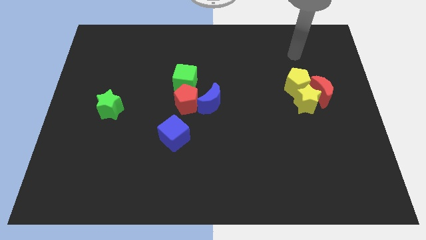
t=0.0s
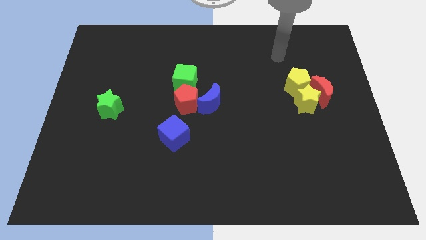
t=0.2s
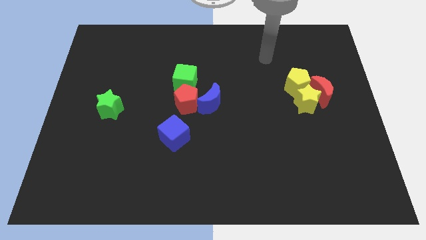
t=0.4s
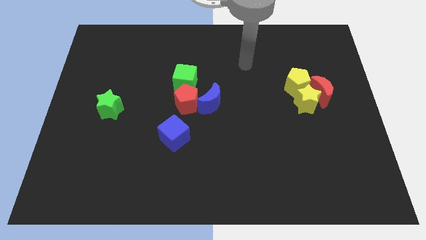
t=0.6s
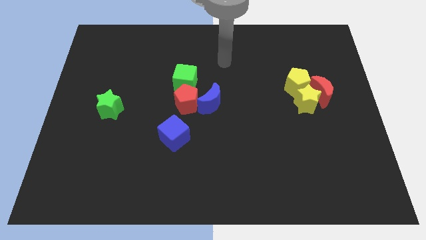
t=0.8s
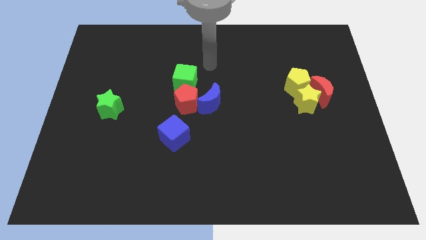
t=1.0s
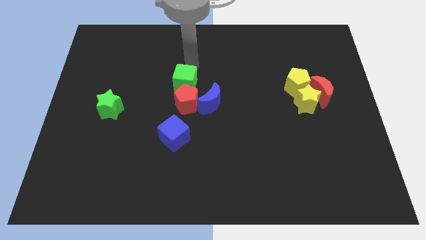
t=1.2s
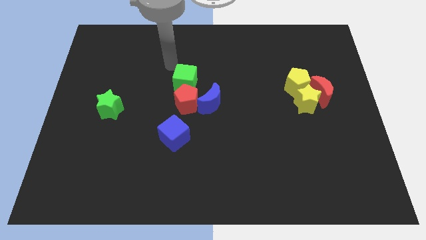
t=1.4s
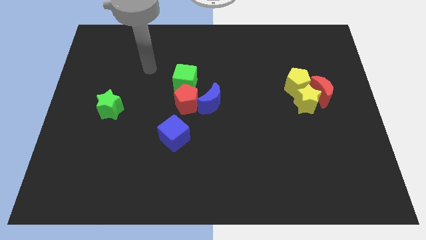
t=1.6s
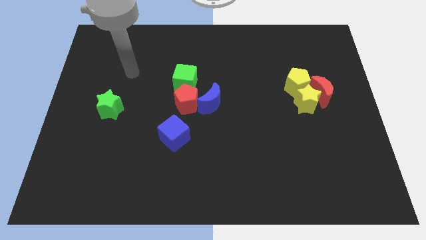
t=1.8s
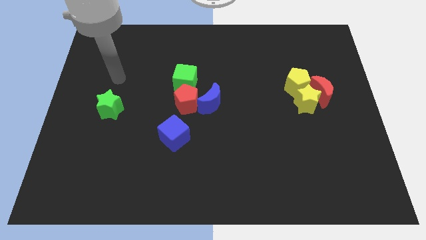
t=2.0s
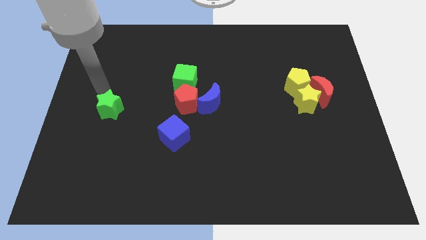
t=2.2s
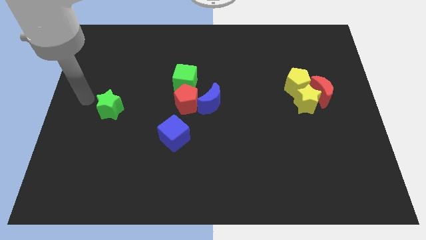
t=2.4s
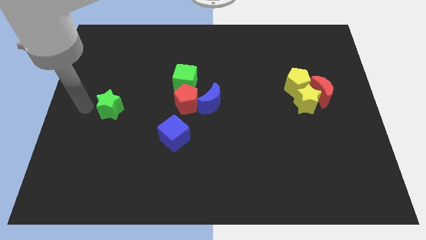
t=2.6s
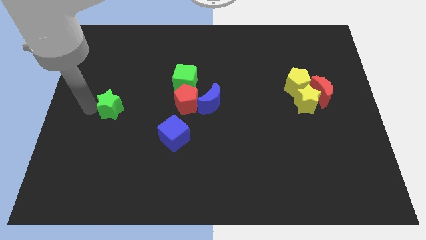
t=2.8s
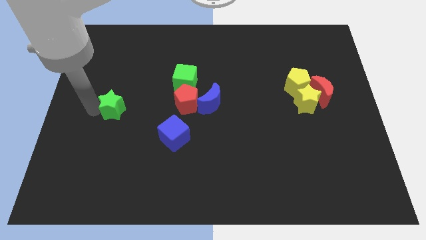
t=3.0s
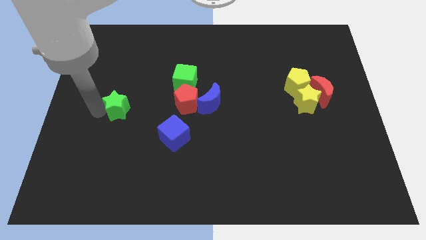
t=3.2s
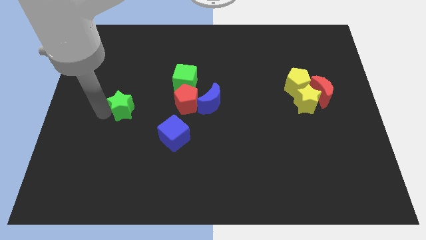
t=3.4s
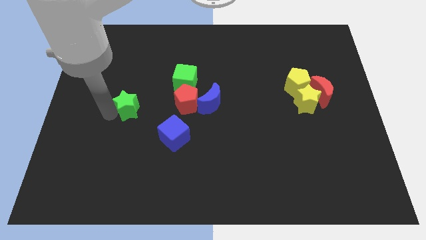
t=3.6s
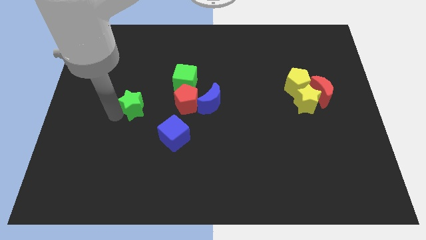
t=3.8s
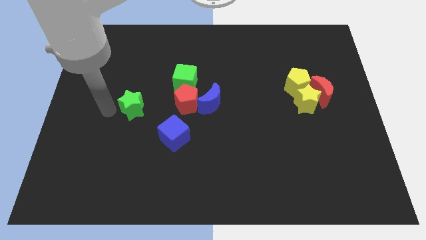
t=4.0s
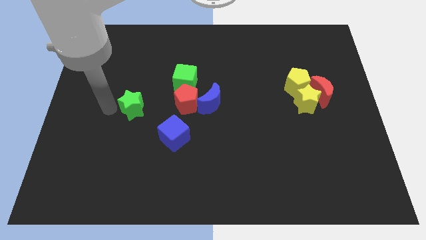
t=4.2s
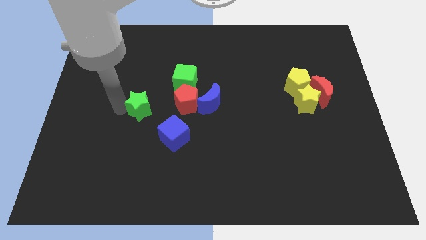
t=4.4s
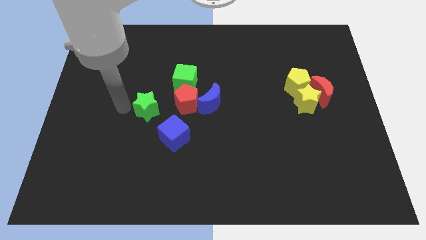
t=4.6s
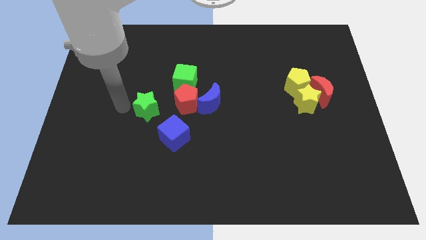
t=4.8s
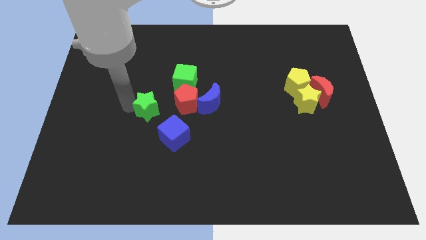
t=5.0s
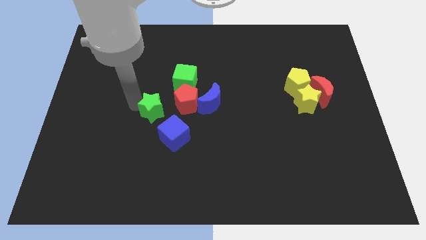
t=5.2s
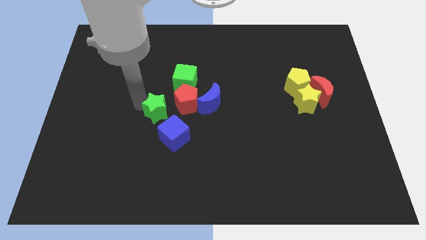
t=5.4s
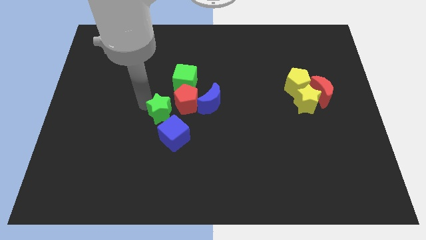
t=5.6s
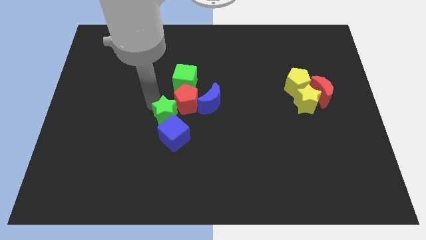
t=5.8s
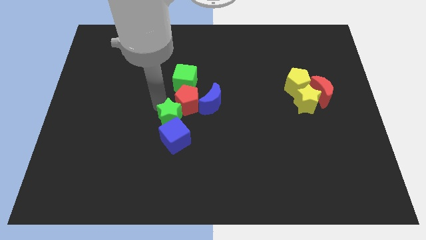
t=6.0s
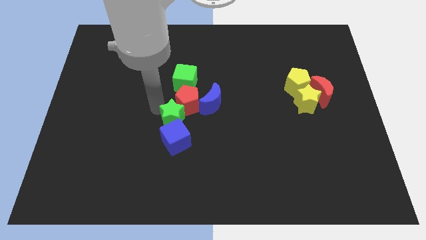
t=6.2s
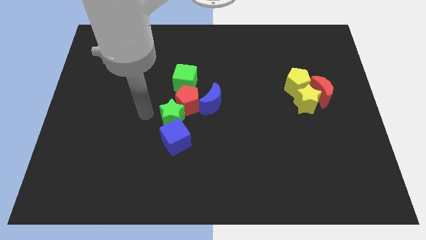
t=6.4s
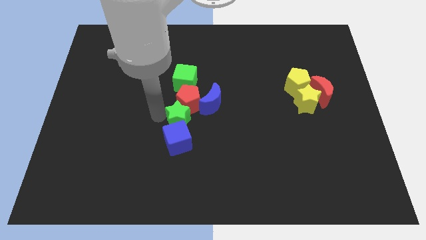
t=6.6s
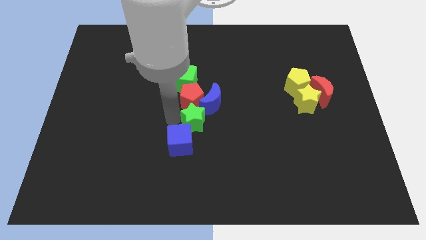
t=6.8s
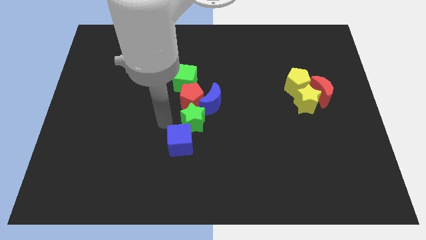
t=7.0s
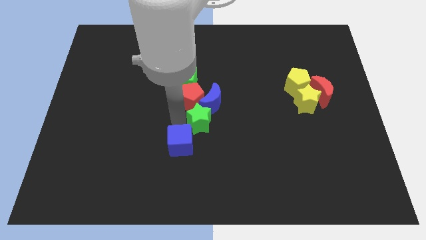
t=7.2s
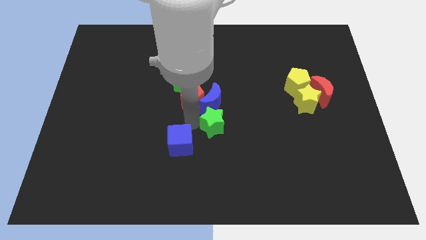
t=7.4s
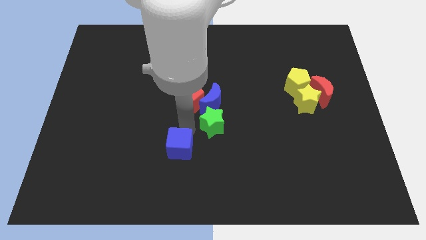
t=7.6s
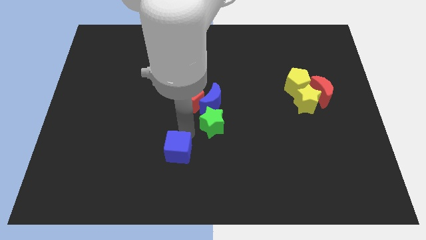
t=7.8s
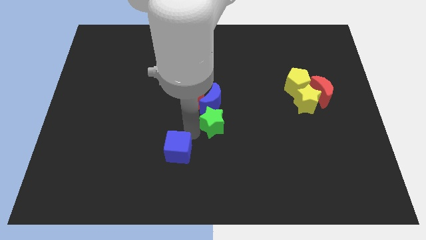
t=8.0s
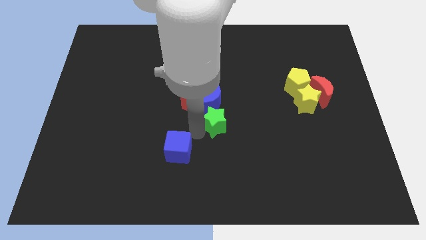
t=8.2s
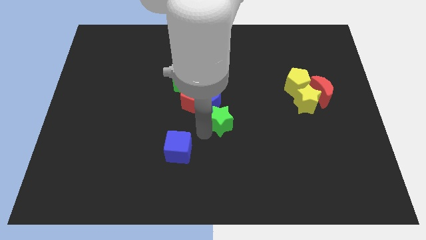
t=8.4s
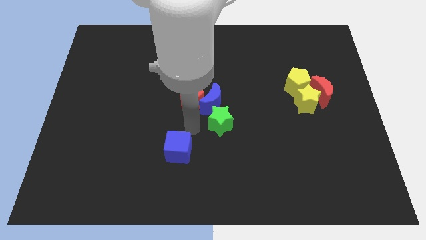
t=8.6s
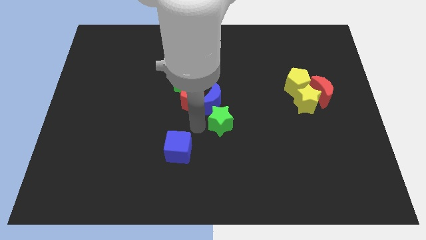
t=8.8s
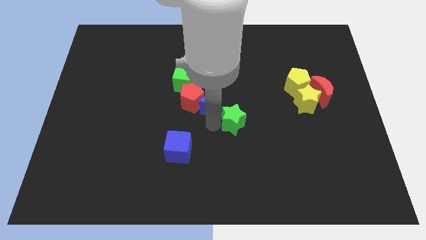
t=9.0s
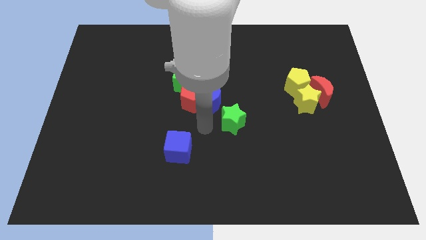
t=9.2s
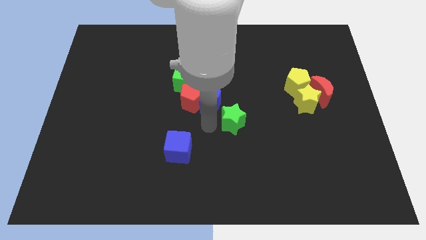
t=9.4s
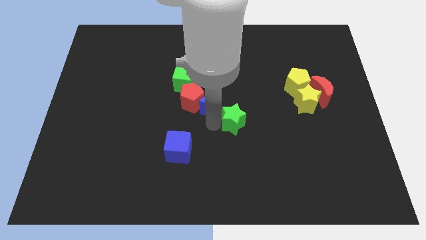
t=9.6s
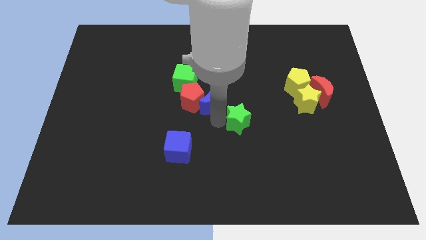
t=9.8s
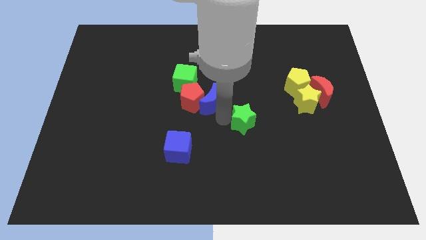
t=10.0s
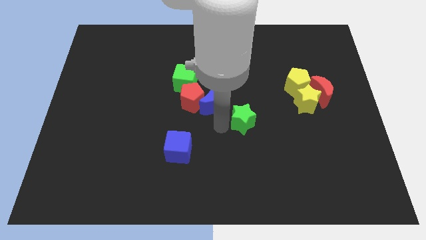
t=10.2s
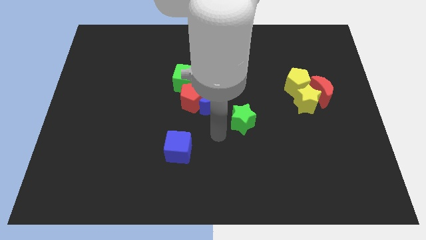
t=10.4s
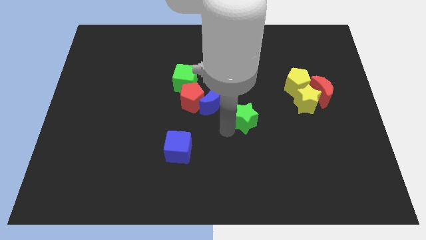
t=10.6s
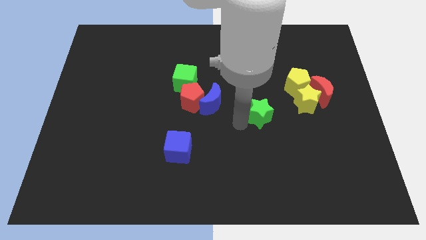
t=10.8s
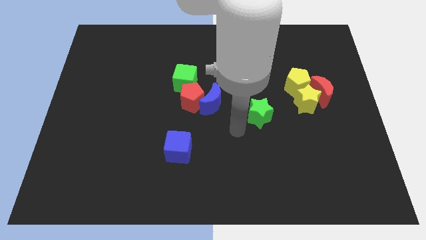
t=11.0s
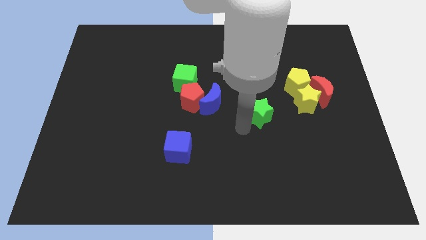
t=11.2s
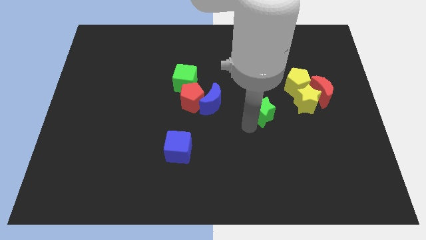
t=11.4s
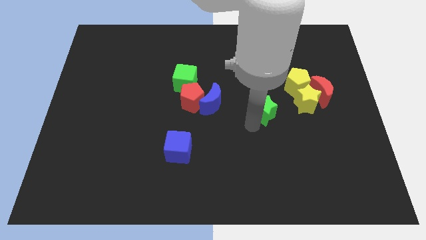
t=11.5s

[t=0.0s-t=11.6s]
slide the green star to the bottom left of the yellow pentagon

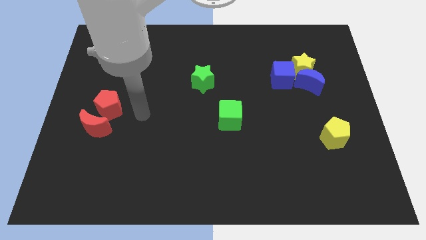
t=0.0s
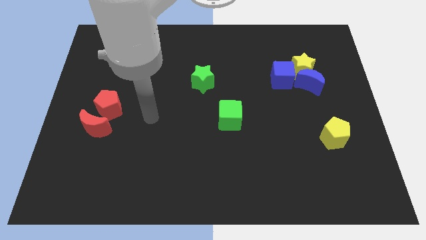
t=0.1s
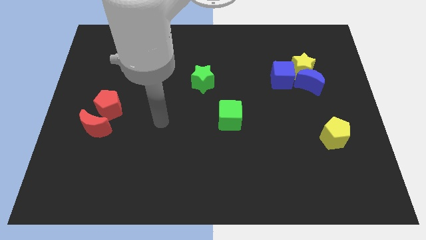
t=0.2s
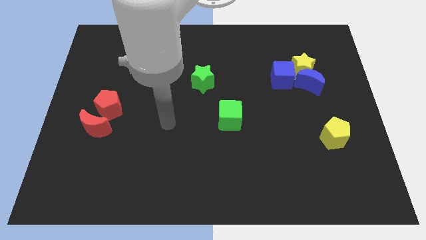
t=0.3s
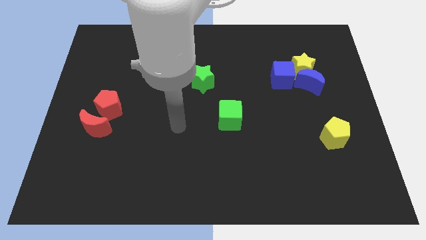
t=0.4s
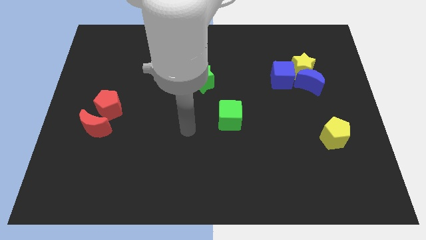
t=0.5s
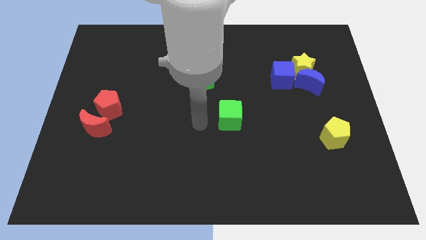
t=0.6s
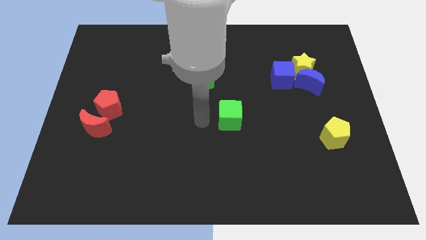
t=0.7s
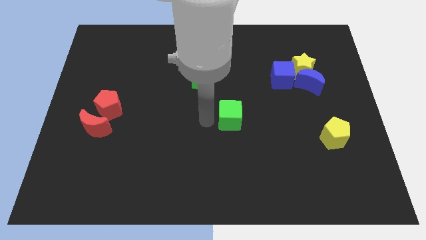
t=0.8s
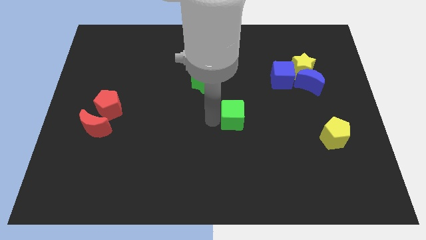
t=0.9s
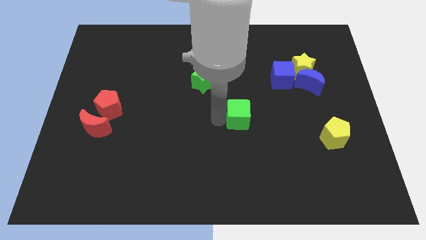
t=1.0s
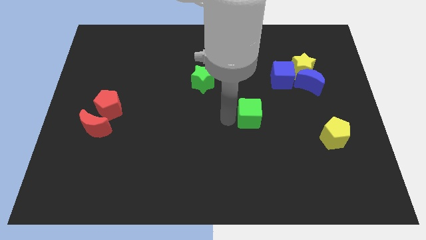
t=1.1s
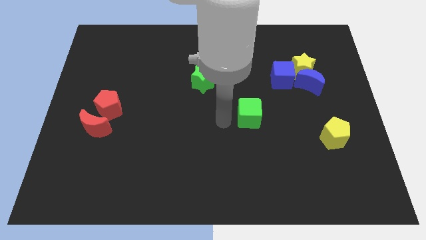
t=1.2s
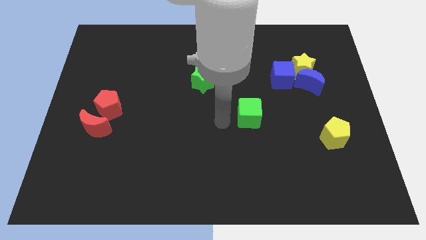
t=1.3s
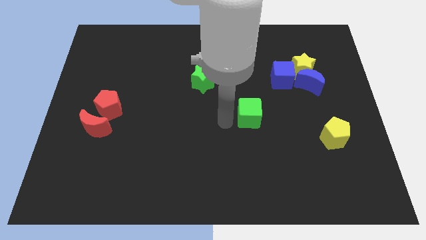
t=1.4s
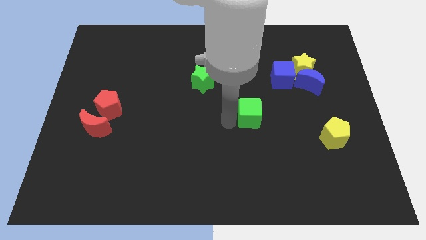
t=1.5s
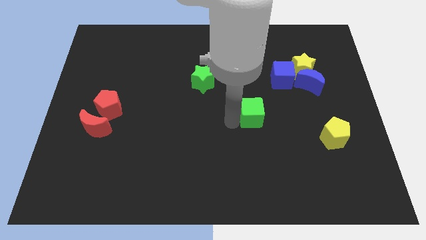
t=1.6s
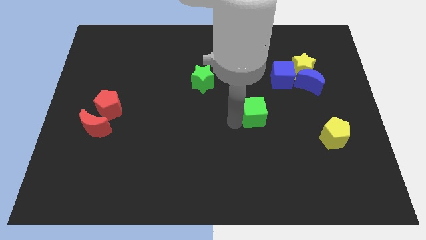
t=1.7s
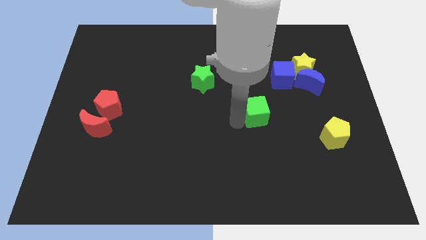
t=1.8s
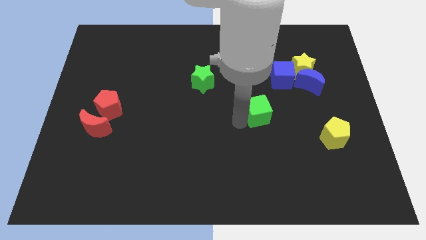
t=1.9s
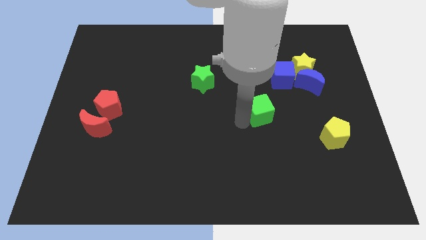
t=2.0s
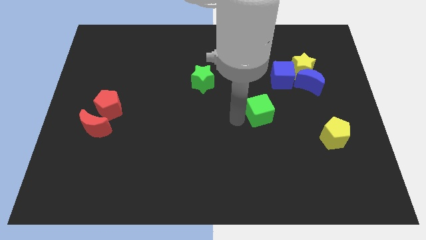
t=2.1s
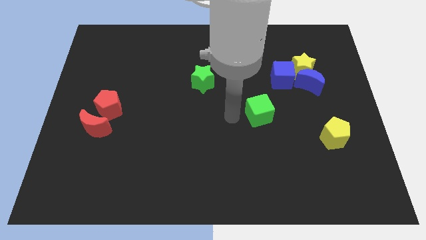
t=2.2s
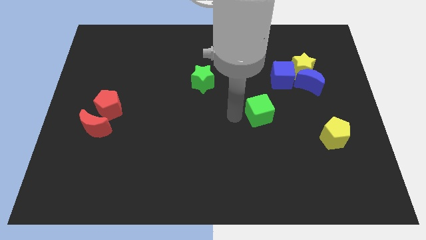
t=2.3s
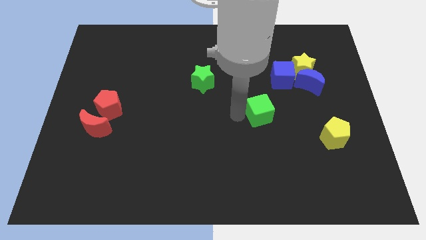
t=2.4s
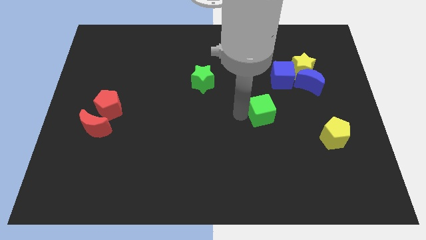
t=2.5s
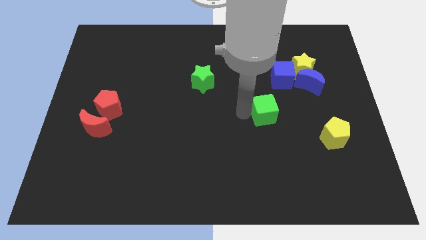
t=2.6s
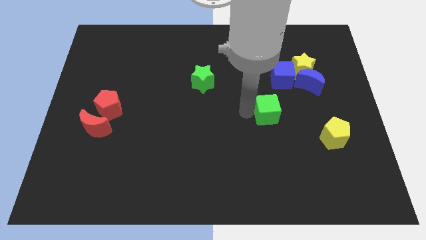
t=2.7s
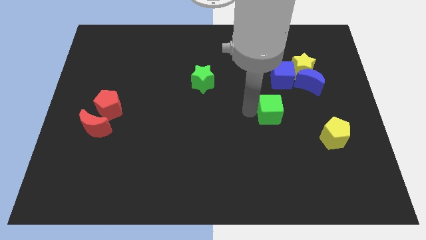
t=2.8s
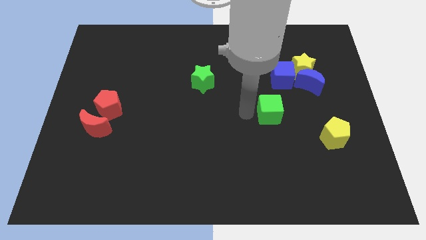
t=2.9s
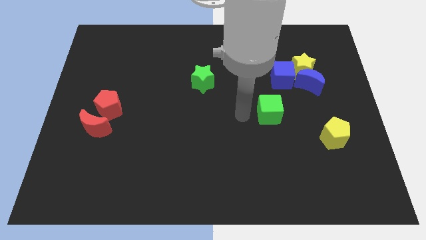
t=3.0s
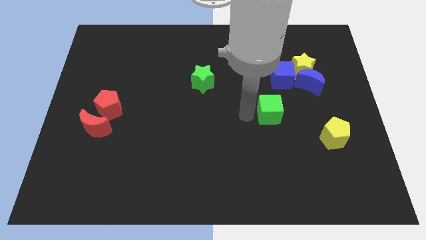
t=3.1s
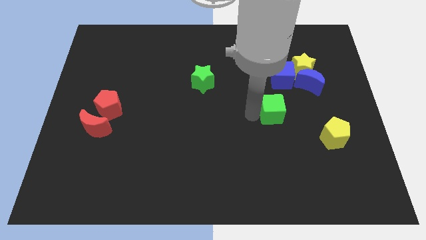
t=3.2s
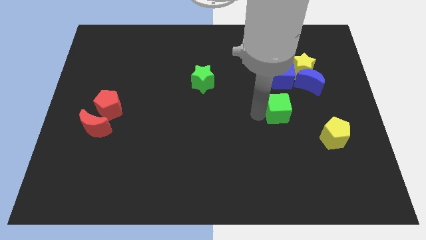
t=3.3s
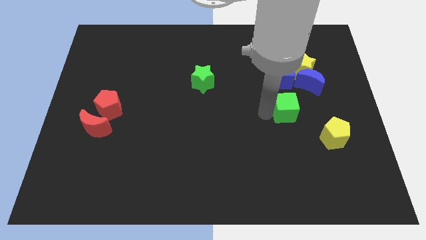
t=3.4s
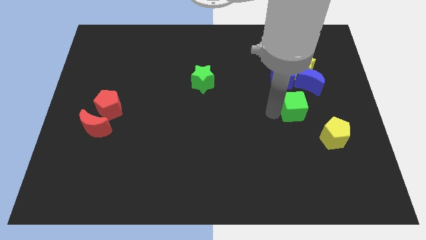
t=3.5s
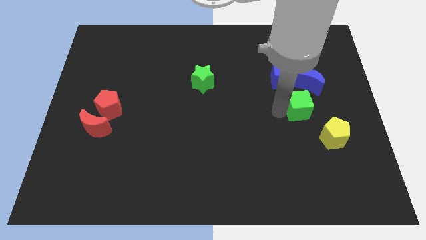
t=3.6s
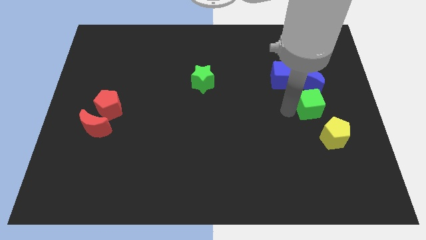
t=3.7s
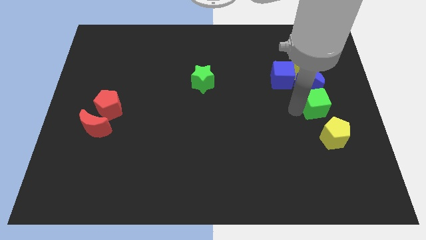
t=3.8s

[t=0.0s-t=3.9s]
put the green cube diagonally down and to the right of the blue moon
